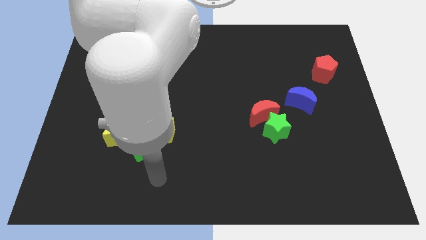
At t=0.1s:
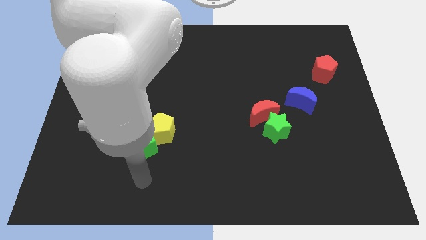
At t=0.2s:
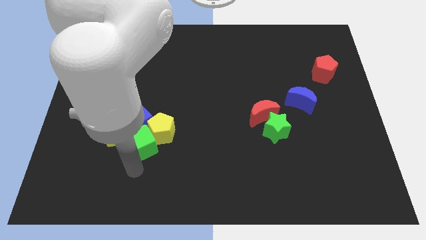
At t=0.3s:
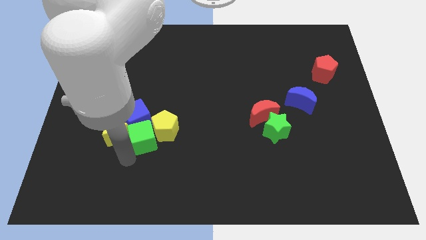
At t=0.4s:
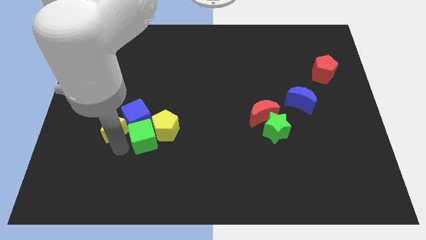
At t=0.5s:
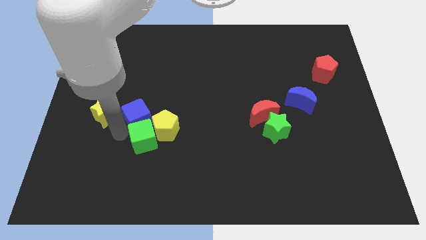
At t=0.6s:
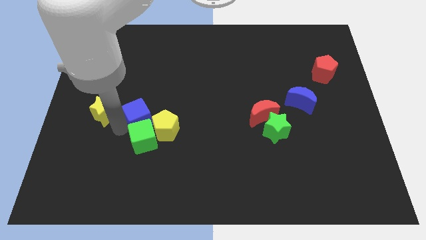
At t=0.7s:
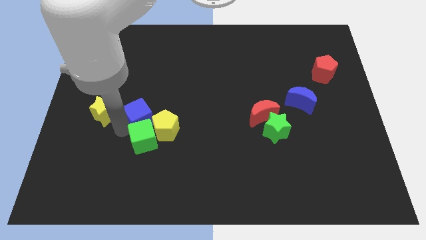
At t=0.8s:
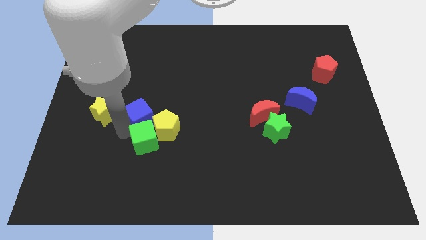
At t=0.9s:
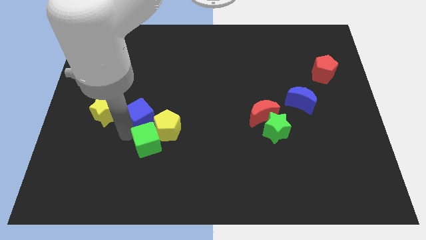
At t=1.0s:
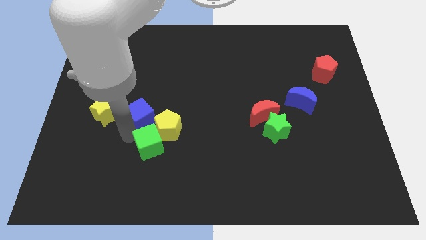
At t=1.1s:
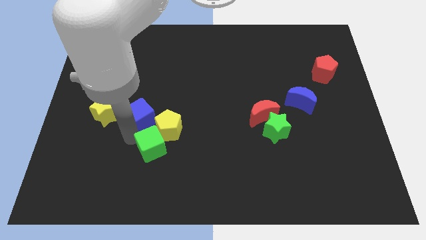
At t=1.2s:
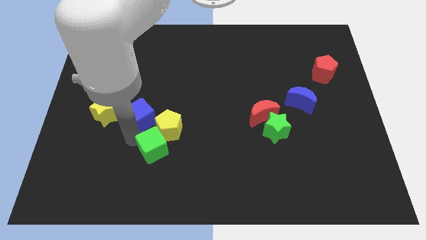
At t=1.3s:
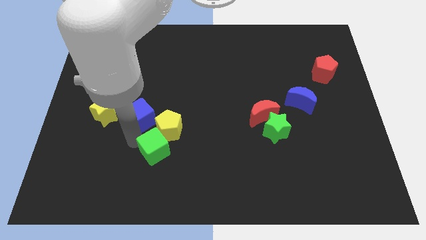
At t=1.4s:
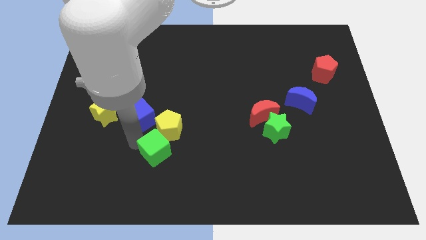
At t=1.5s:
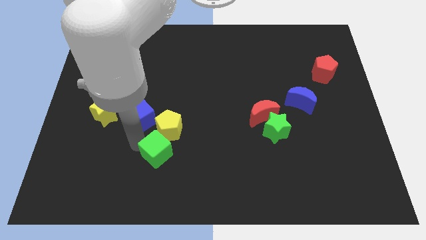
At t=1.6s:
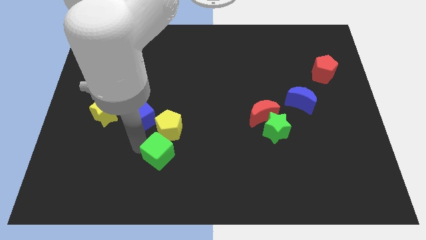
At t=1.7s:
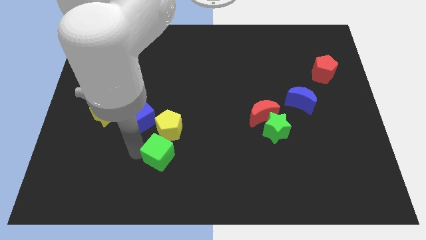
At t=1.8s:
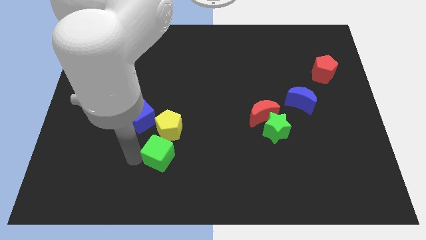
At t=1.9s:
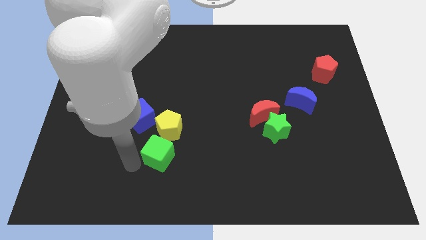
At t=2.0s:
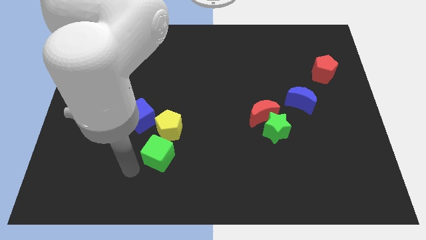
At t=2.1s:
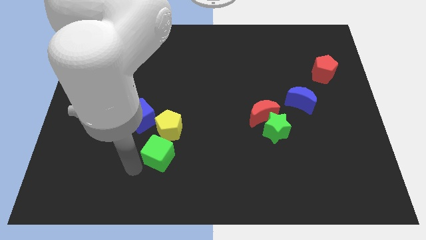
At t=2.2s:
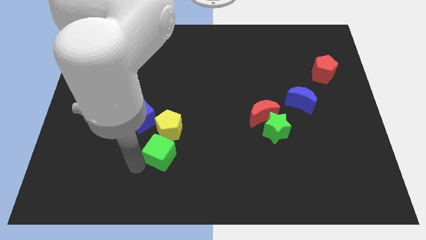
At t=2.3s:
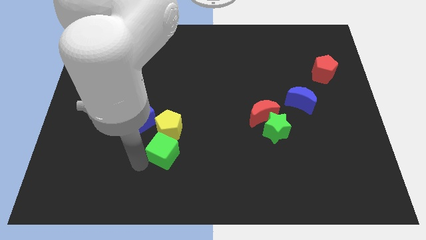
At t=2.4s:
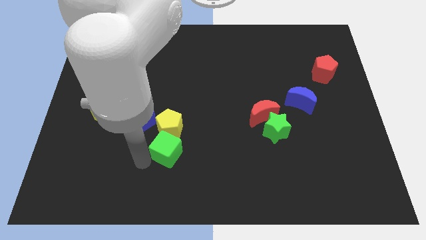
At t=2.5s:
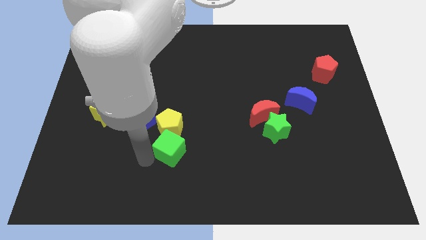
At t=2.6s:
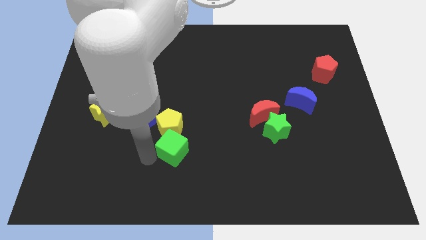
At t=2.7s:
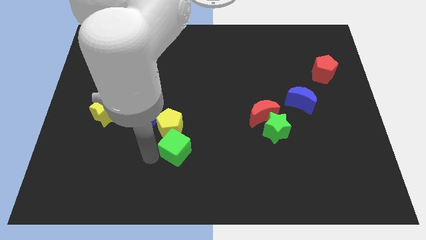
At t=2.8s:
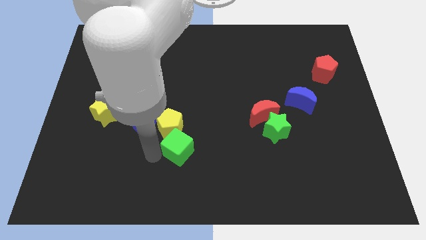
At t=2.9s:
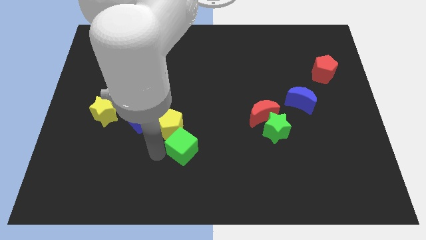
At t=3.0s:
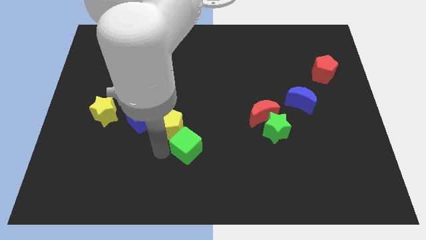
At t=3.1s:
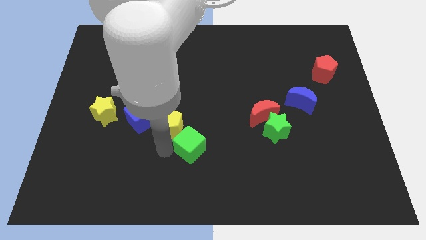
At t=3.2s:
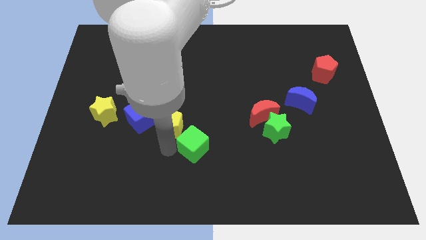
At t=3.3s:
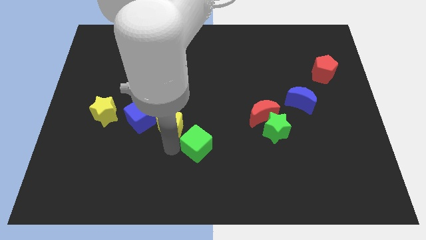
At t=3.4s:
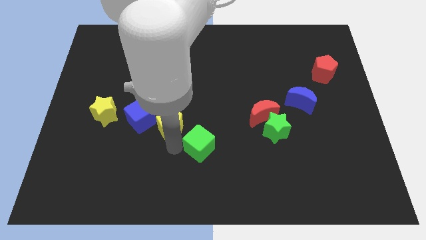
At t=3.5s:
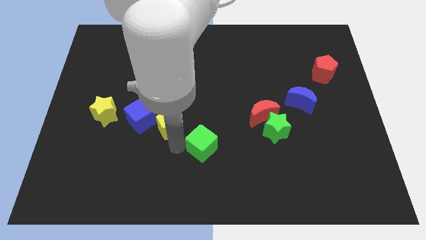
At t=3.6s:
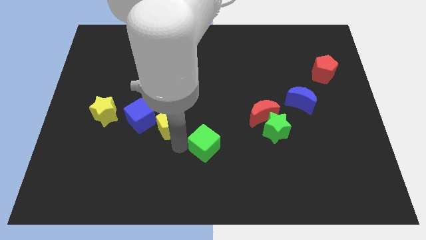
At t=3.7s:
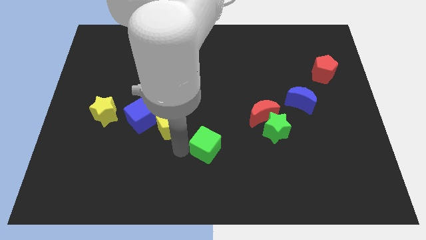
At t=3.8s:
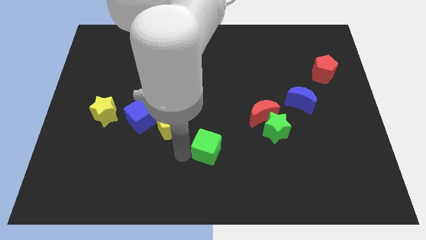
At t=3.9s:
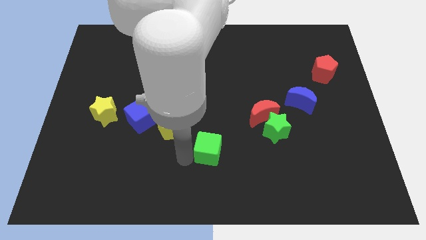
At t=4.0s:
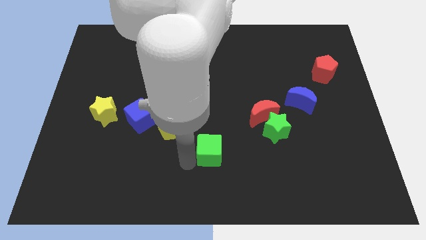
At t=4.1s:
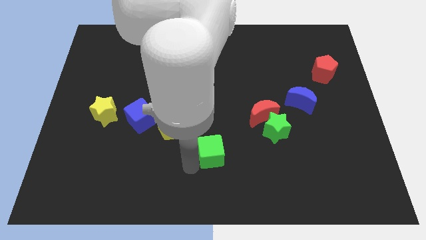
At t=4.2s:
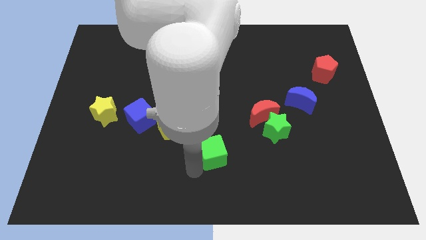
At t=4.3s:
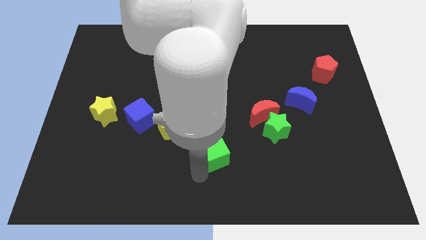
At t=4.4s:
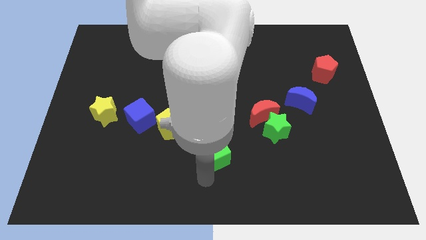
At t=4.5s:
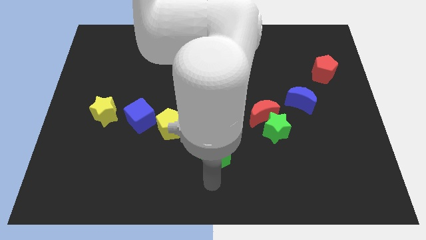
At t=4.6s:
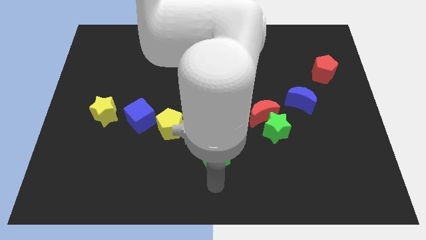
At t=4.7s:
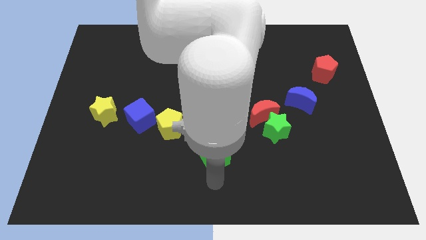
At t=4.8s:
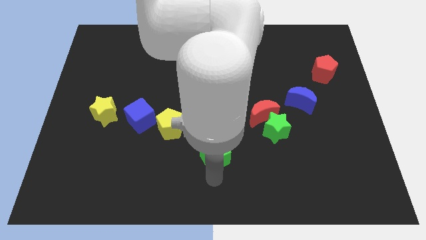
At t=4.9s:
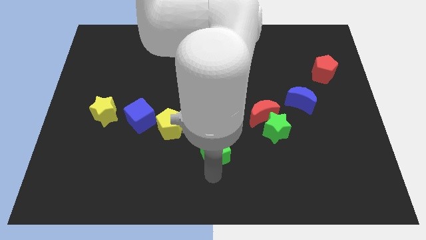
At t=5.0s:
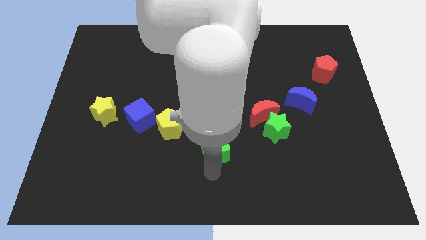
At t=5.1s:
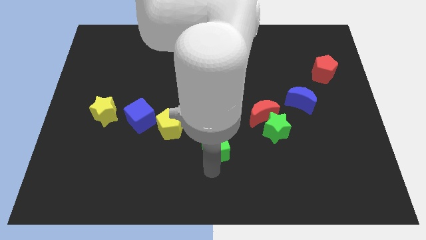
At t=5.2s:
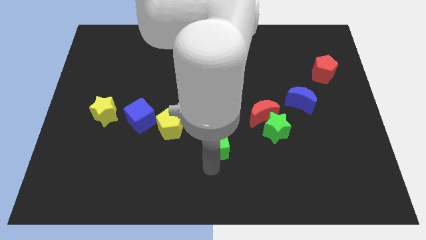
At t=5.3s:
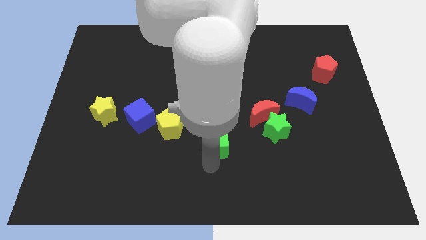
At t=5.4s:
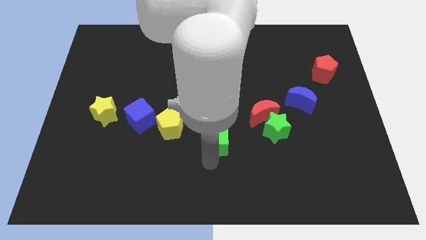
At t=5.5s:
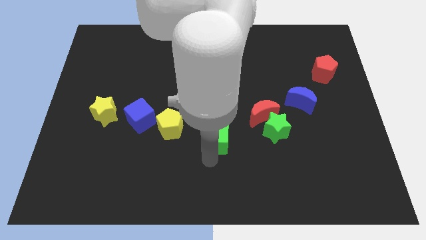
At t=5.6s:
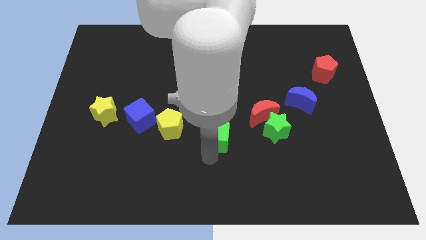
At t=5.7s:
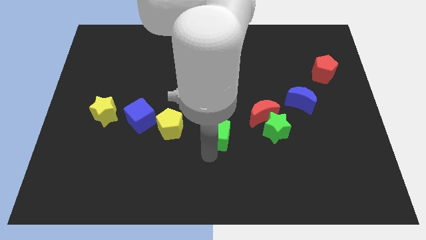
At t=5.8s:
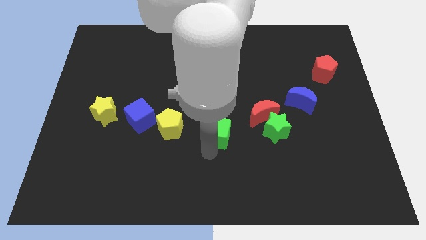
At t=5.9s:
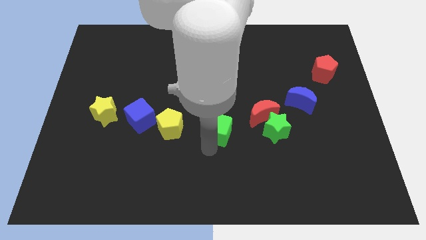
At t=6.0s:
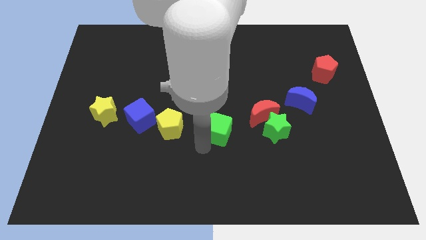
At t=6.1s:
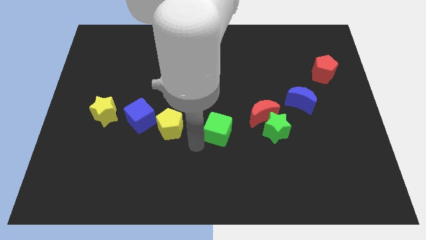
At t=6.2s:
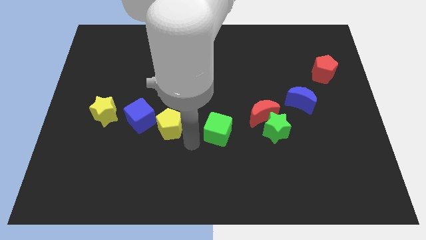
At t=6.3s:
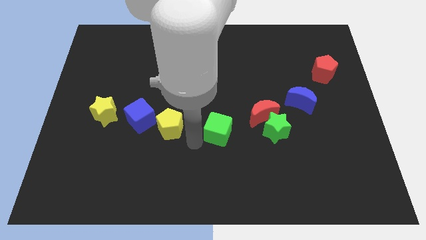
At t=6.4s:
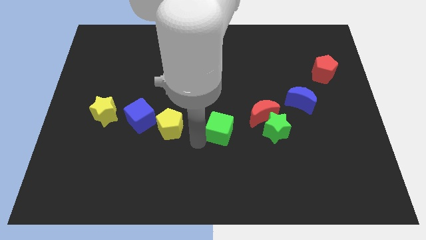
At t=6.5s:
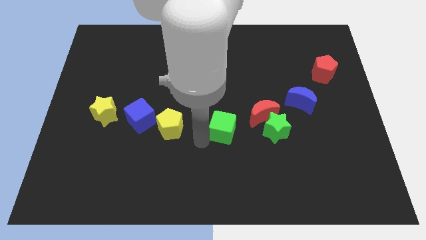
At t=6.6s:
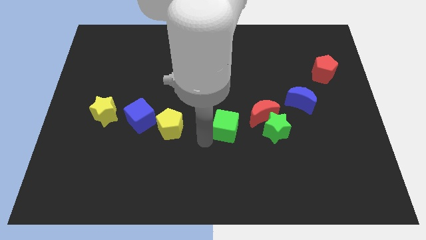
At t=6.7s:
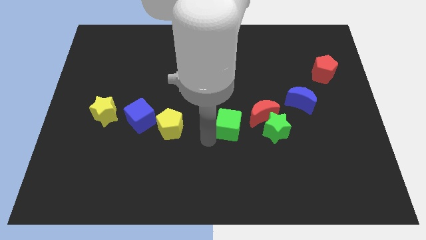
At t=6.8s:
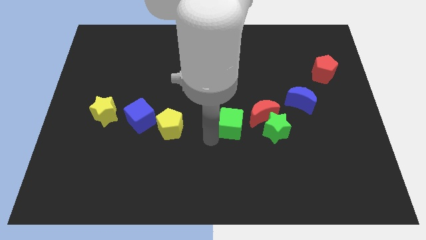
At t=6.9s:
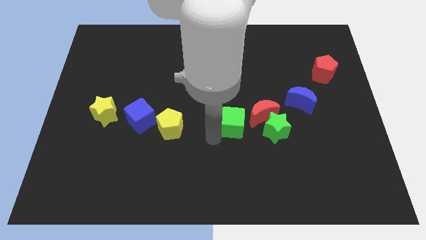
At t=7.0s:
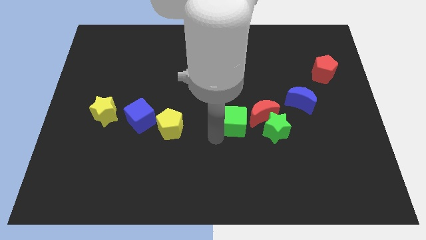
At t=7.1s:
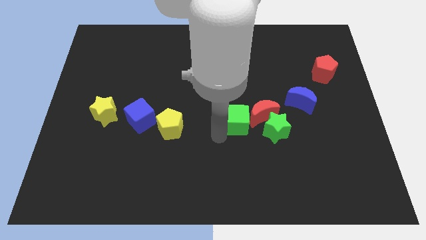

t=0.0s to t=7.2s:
put the green cube to the red moon
